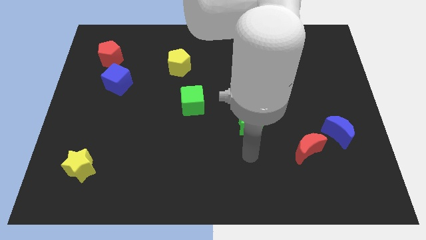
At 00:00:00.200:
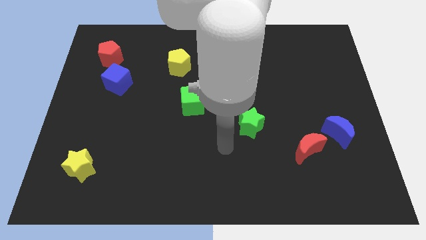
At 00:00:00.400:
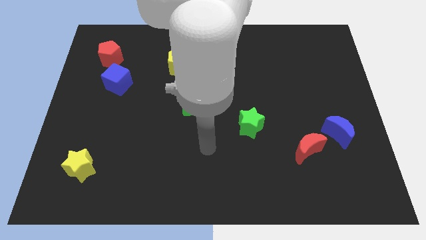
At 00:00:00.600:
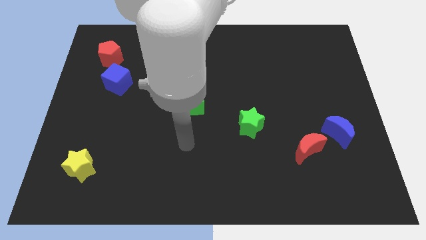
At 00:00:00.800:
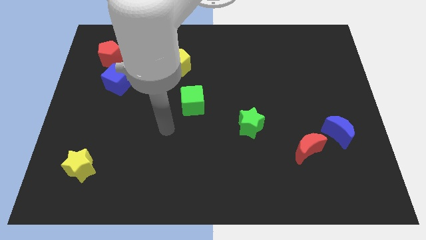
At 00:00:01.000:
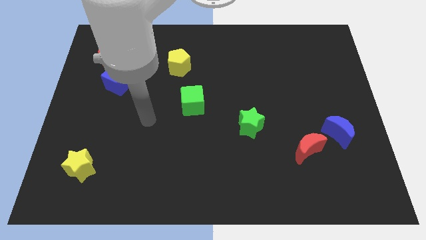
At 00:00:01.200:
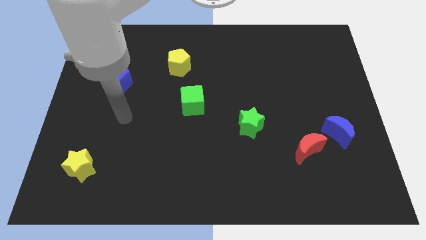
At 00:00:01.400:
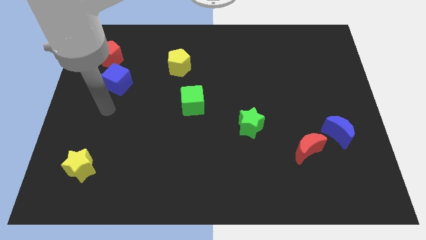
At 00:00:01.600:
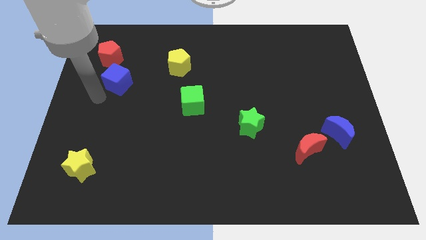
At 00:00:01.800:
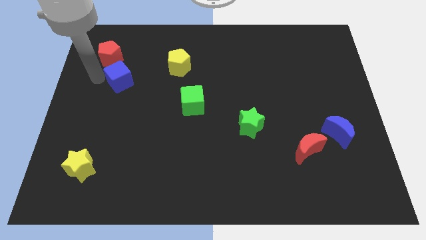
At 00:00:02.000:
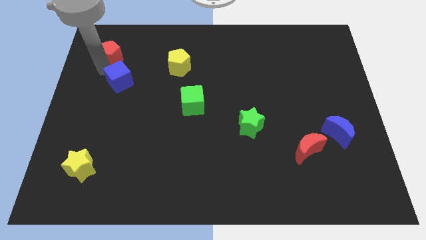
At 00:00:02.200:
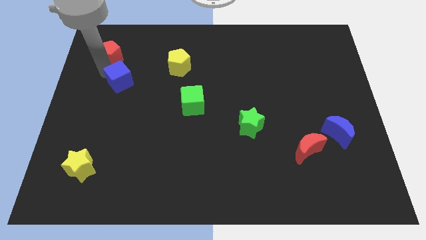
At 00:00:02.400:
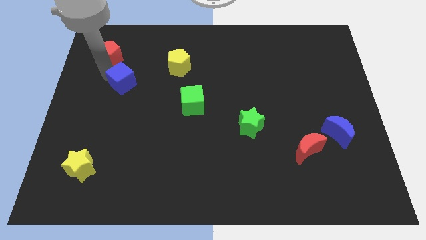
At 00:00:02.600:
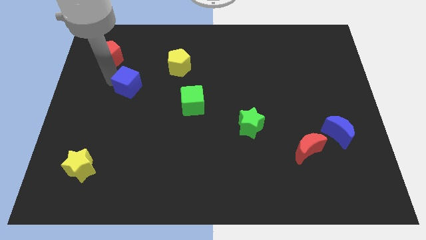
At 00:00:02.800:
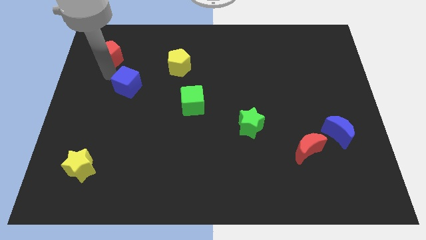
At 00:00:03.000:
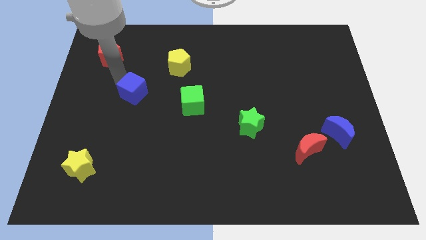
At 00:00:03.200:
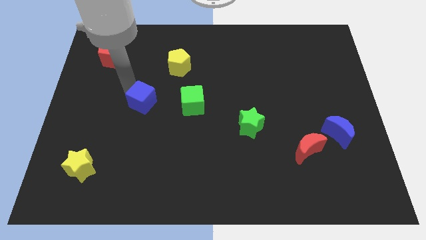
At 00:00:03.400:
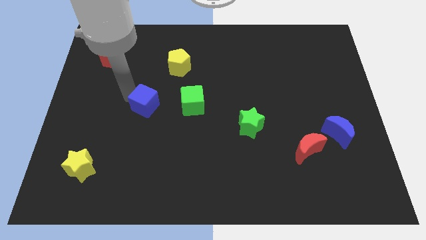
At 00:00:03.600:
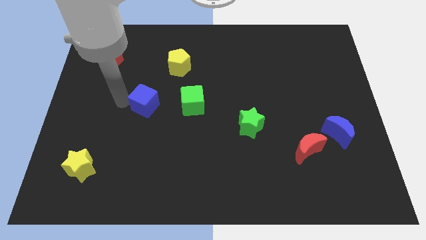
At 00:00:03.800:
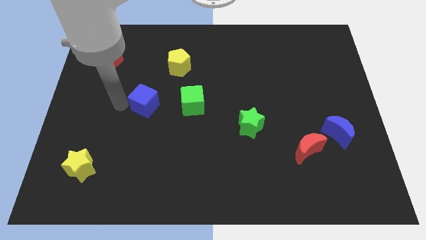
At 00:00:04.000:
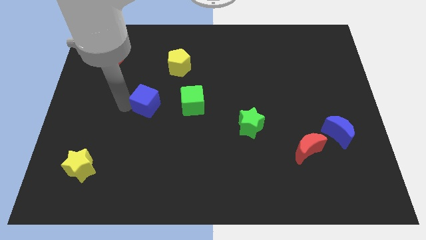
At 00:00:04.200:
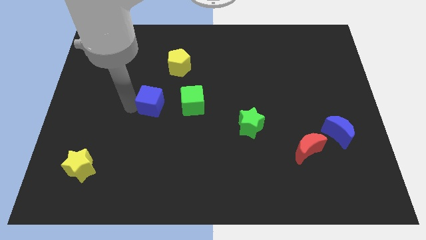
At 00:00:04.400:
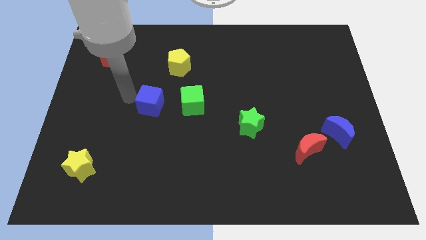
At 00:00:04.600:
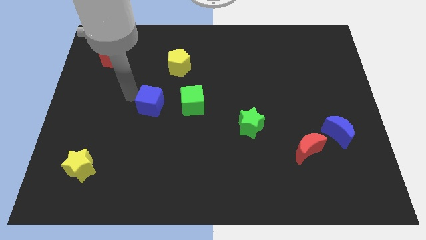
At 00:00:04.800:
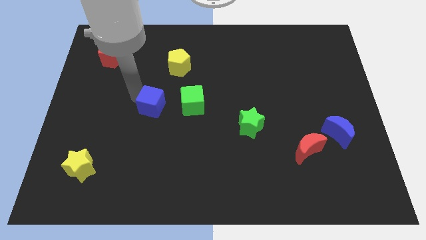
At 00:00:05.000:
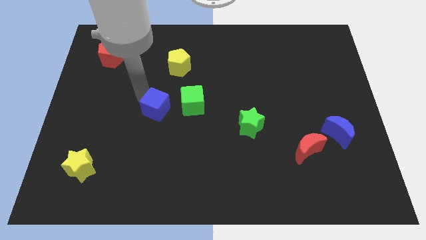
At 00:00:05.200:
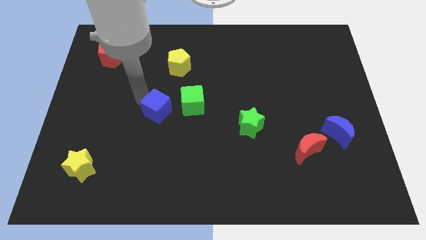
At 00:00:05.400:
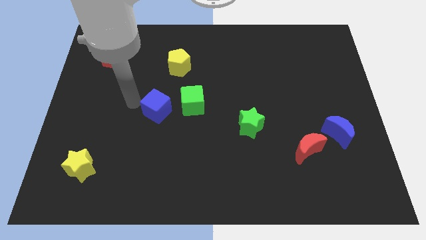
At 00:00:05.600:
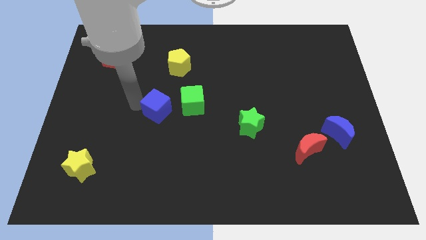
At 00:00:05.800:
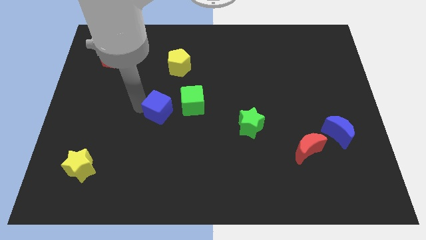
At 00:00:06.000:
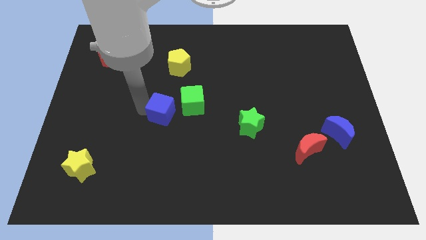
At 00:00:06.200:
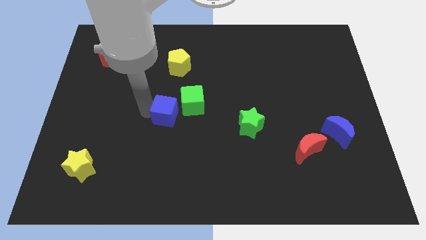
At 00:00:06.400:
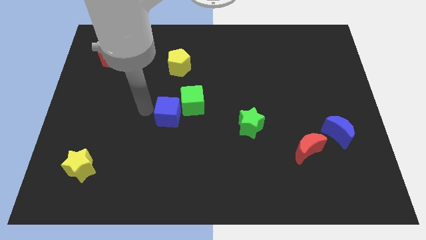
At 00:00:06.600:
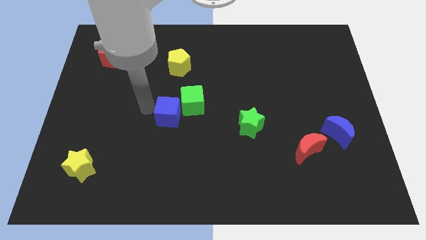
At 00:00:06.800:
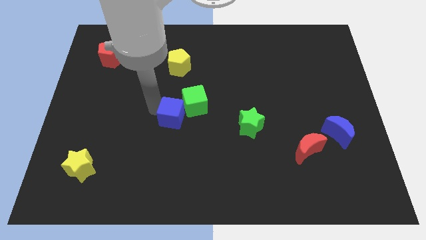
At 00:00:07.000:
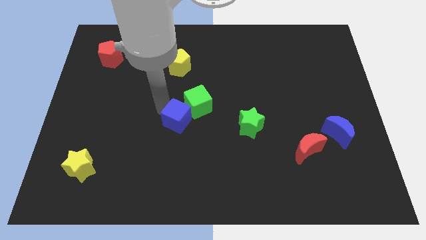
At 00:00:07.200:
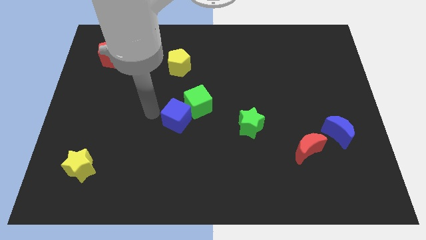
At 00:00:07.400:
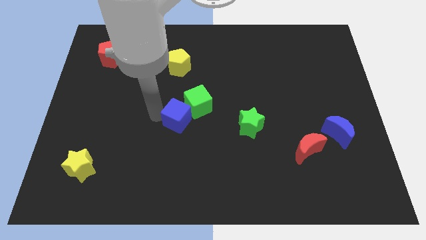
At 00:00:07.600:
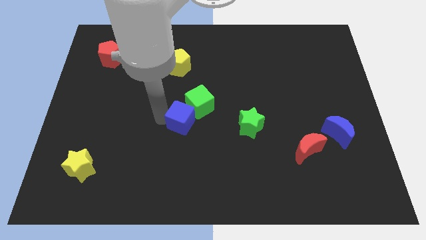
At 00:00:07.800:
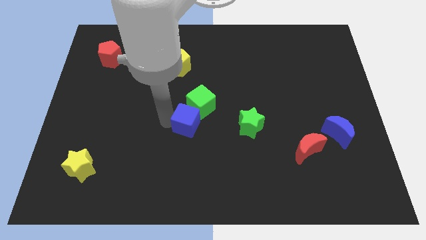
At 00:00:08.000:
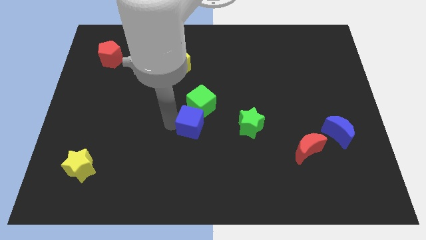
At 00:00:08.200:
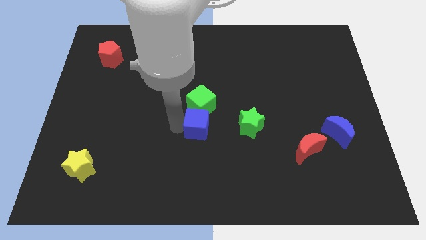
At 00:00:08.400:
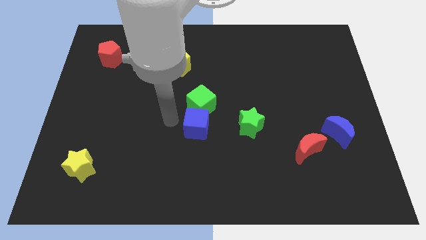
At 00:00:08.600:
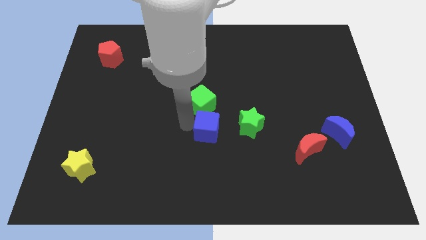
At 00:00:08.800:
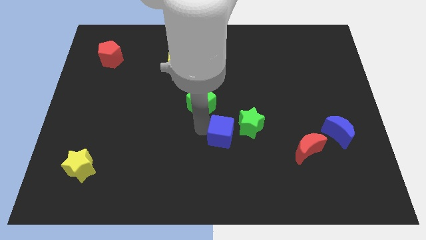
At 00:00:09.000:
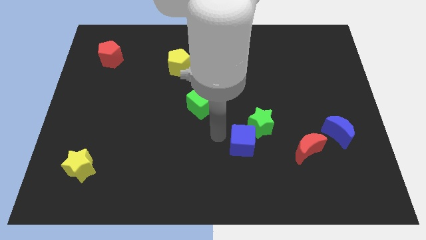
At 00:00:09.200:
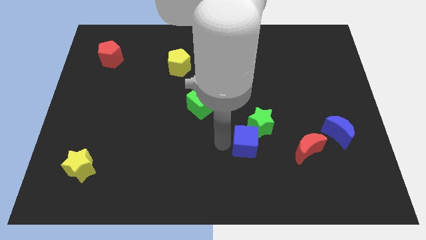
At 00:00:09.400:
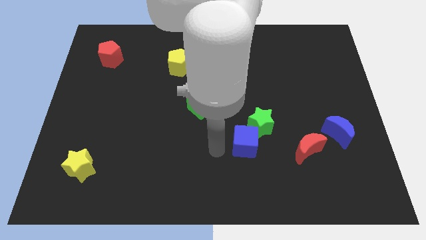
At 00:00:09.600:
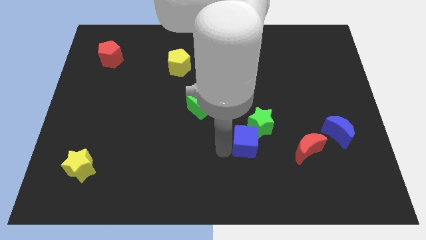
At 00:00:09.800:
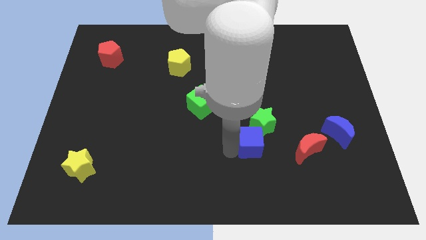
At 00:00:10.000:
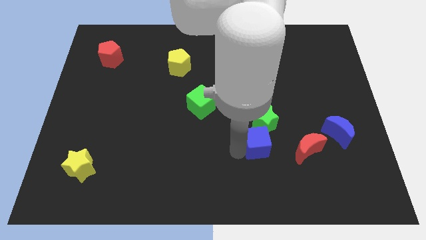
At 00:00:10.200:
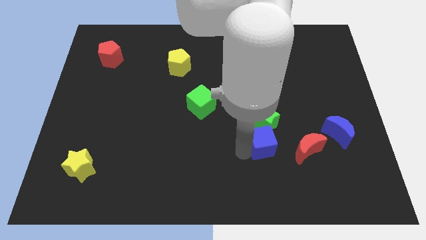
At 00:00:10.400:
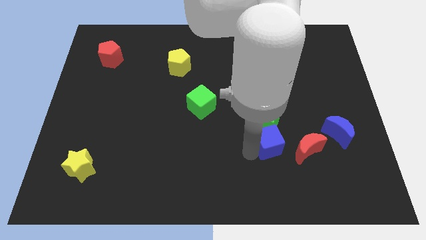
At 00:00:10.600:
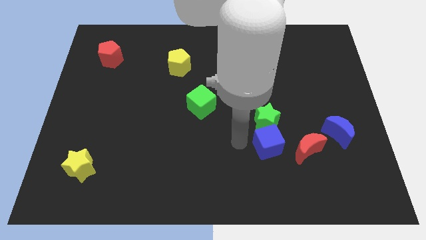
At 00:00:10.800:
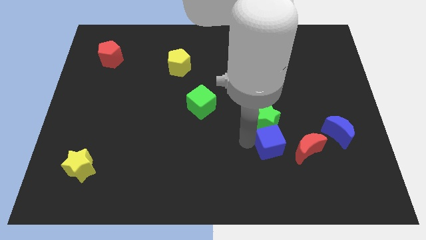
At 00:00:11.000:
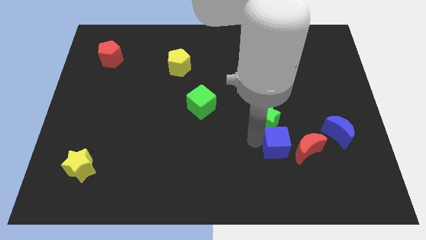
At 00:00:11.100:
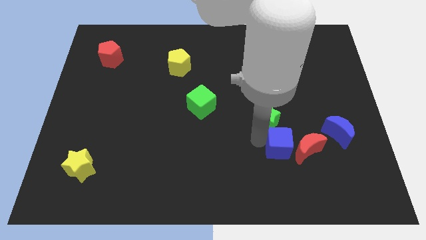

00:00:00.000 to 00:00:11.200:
slide the blue cube close to the red moon

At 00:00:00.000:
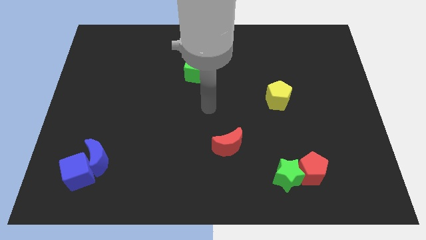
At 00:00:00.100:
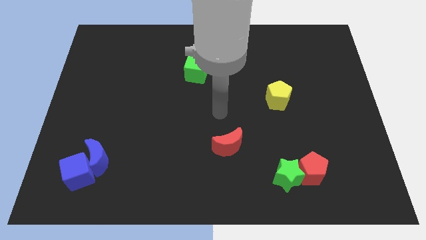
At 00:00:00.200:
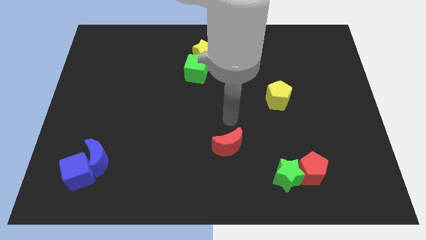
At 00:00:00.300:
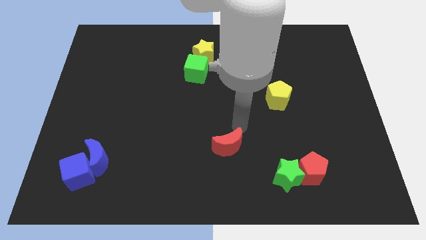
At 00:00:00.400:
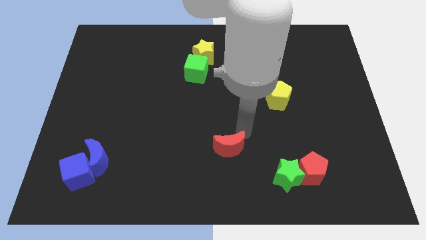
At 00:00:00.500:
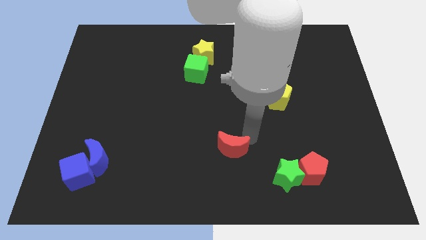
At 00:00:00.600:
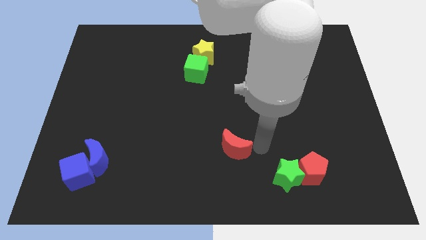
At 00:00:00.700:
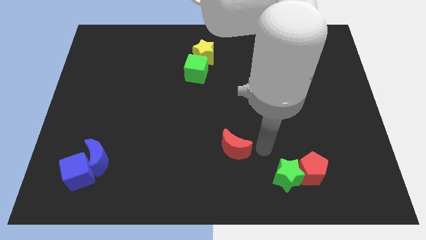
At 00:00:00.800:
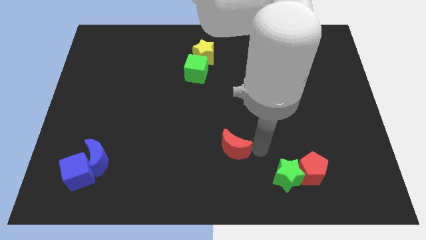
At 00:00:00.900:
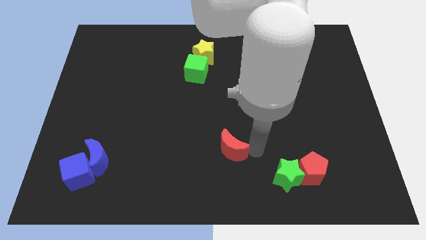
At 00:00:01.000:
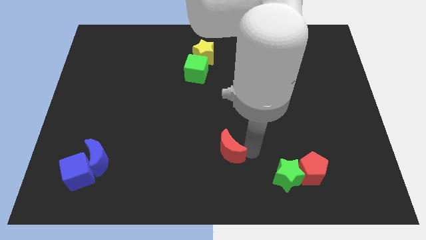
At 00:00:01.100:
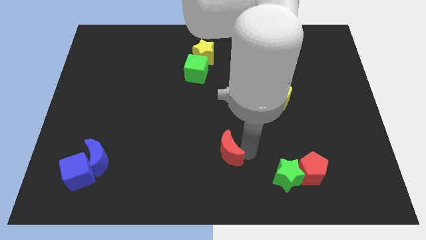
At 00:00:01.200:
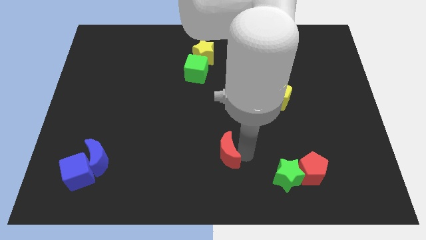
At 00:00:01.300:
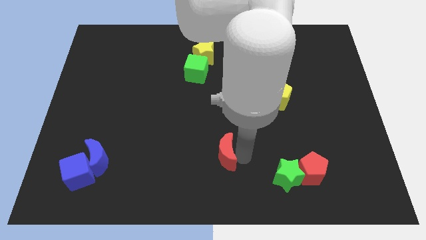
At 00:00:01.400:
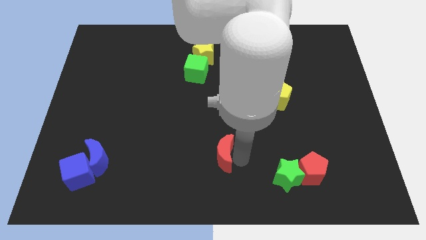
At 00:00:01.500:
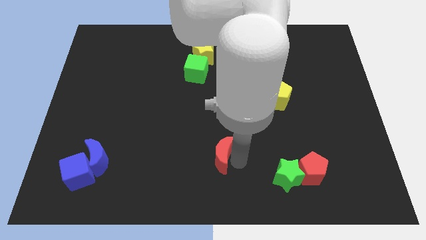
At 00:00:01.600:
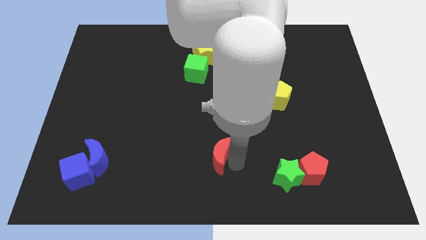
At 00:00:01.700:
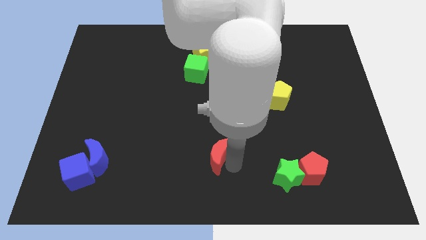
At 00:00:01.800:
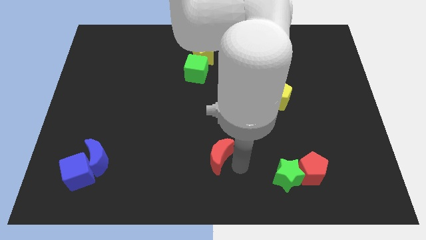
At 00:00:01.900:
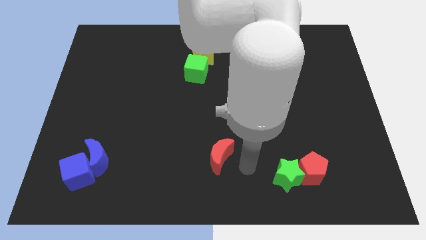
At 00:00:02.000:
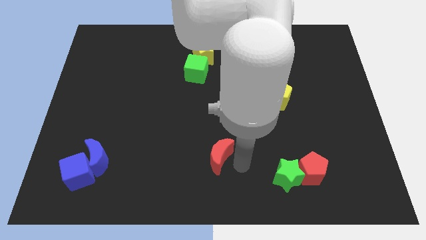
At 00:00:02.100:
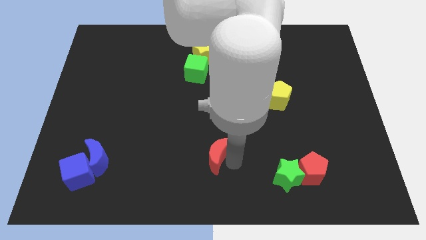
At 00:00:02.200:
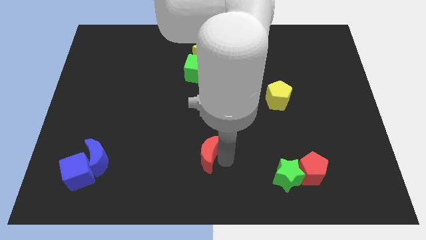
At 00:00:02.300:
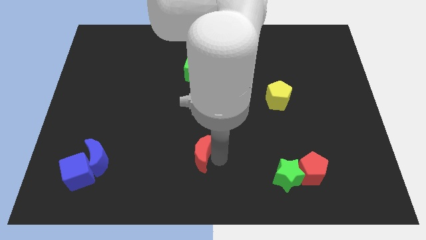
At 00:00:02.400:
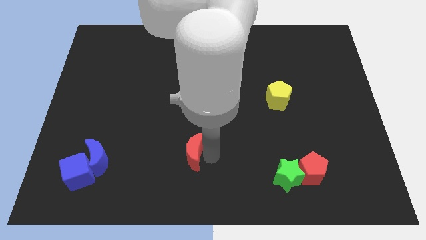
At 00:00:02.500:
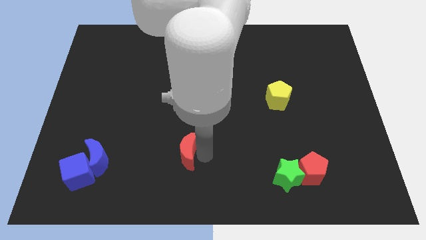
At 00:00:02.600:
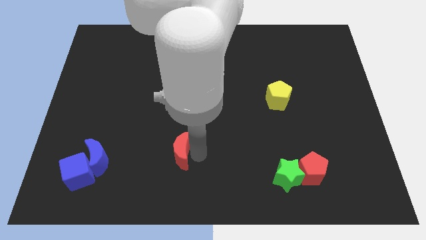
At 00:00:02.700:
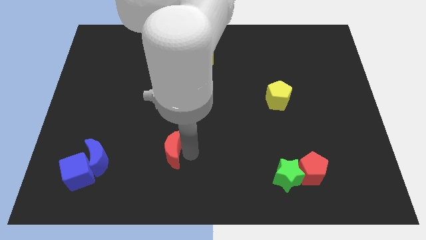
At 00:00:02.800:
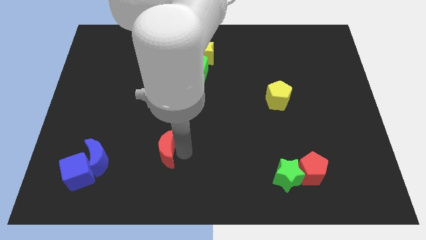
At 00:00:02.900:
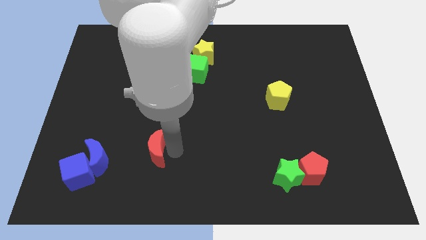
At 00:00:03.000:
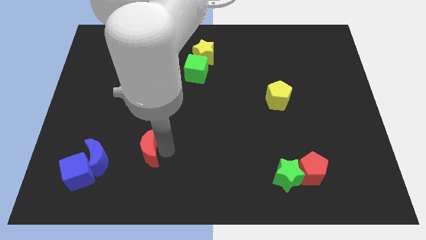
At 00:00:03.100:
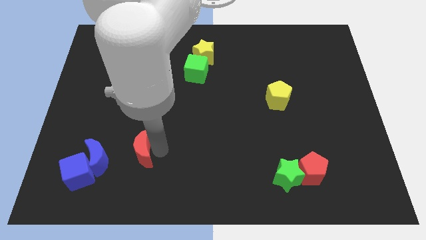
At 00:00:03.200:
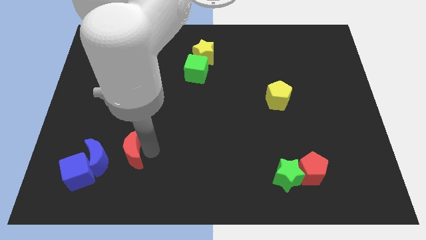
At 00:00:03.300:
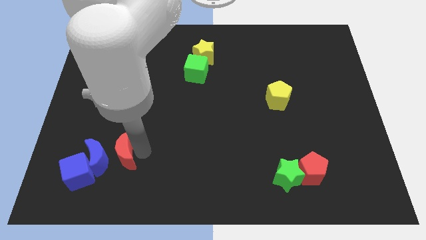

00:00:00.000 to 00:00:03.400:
push the red moon towards the blue moon
